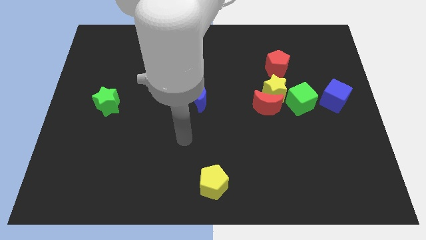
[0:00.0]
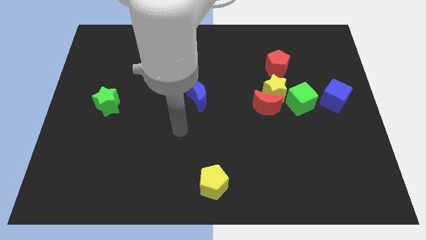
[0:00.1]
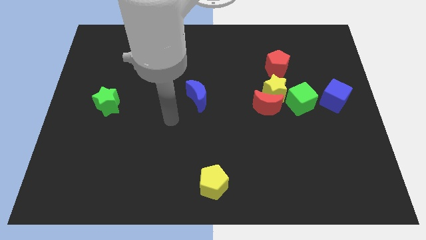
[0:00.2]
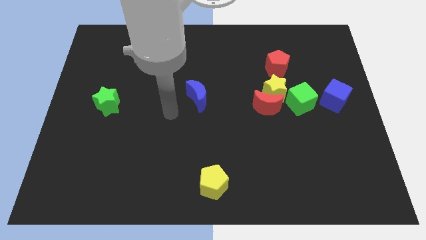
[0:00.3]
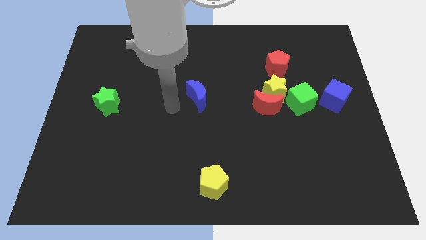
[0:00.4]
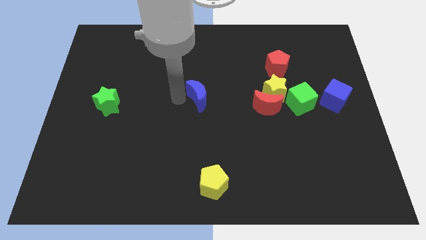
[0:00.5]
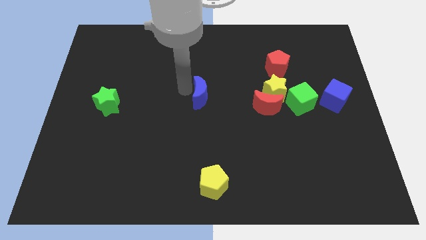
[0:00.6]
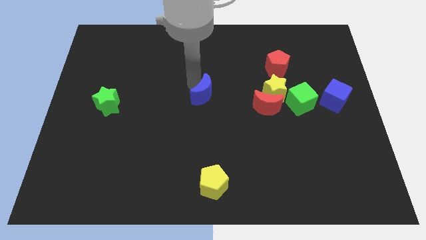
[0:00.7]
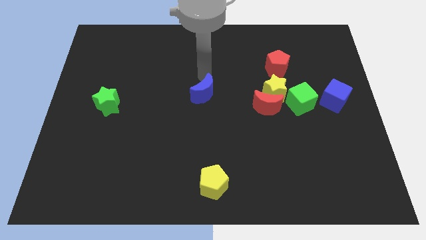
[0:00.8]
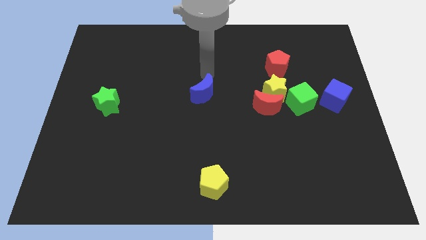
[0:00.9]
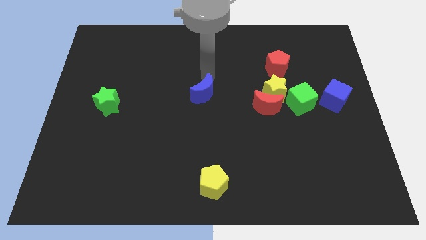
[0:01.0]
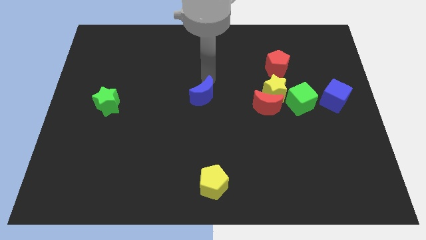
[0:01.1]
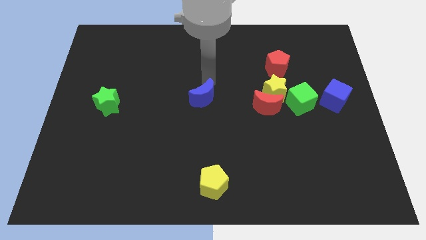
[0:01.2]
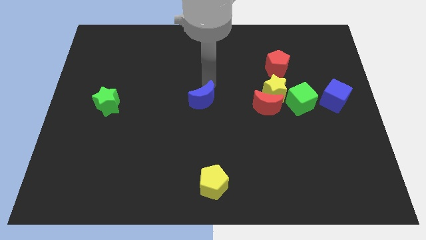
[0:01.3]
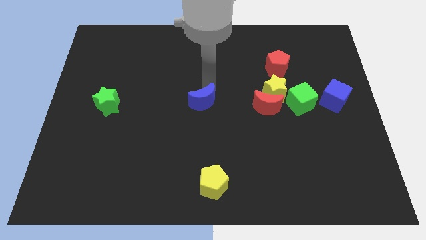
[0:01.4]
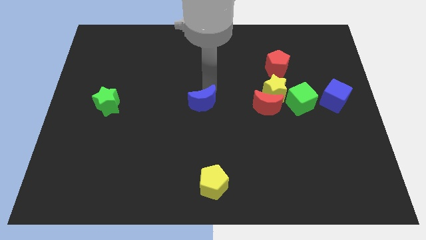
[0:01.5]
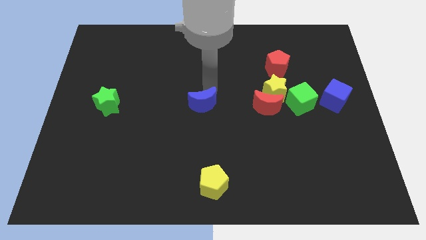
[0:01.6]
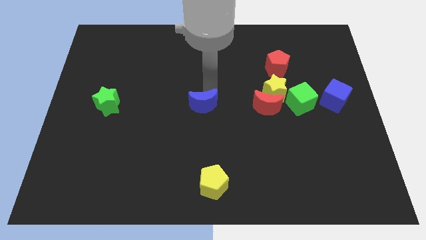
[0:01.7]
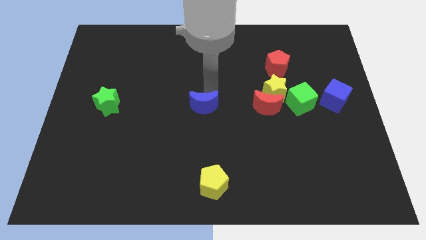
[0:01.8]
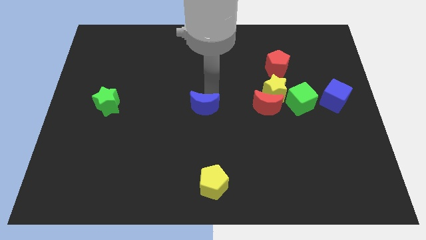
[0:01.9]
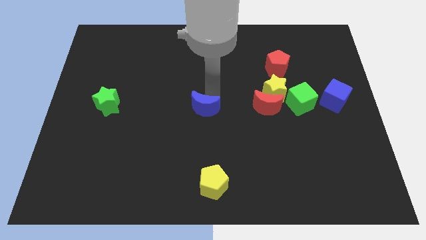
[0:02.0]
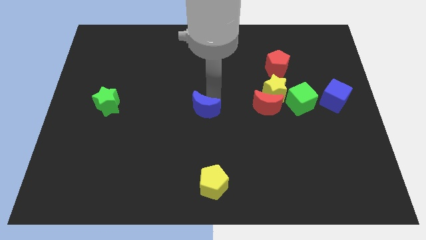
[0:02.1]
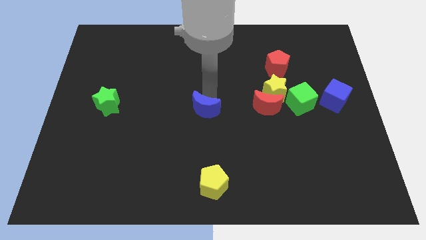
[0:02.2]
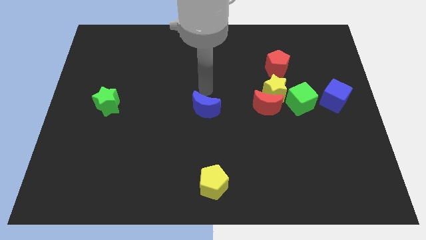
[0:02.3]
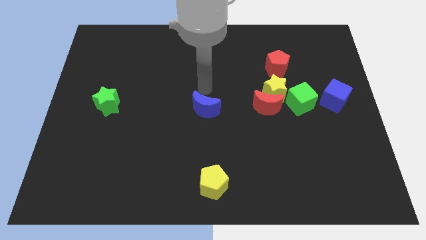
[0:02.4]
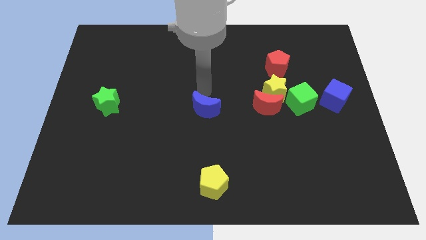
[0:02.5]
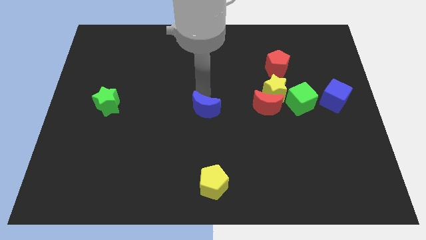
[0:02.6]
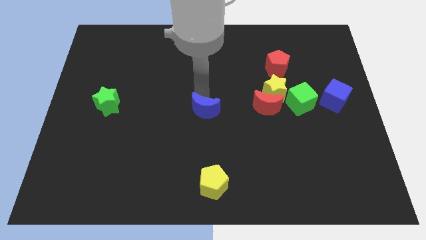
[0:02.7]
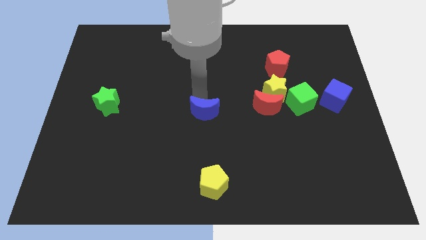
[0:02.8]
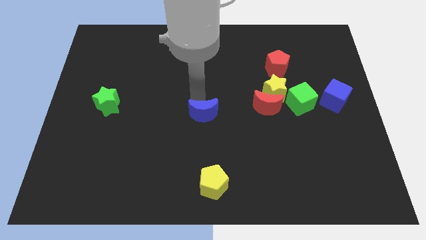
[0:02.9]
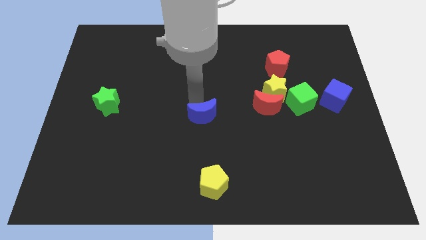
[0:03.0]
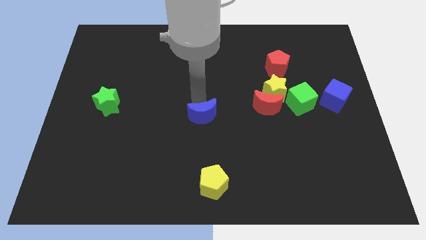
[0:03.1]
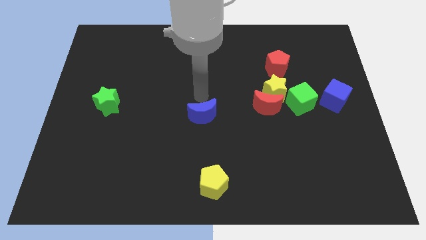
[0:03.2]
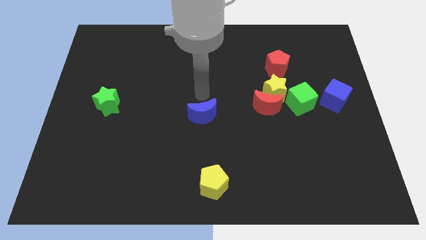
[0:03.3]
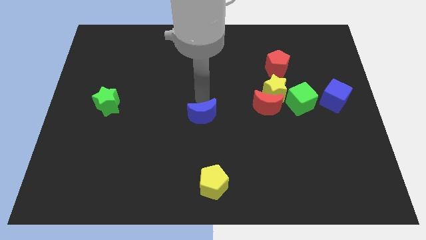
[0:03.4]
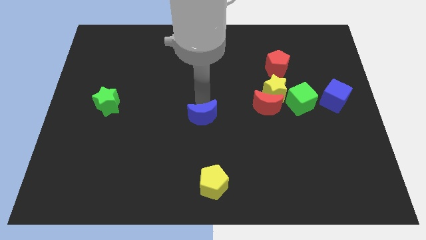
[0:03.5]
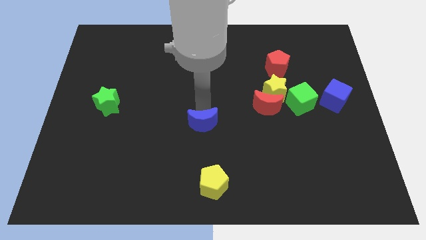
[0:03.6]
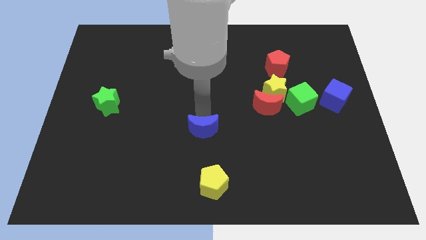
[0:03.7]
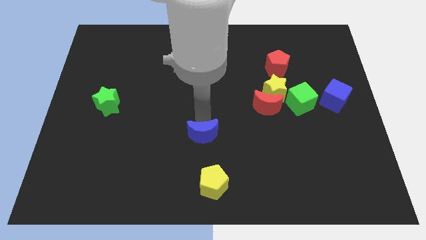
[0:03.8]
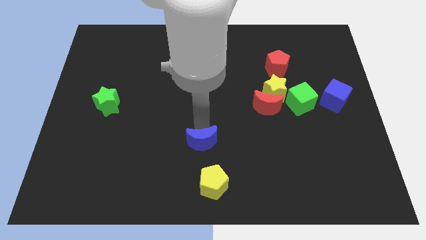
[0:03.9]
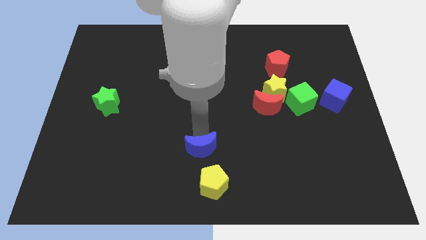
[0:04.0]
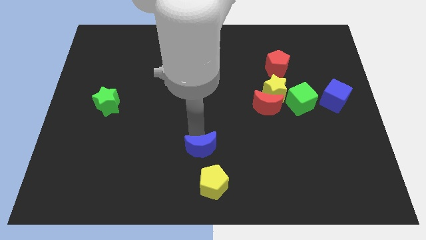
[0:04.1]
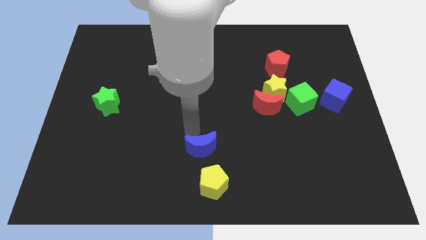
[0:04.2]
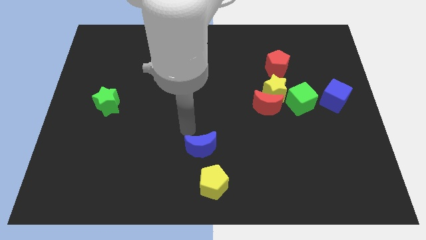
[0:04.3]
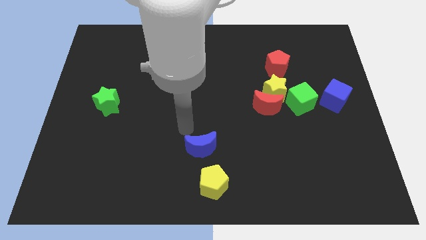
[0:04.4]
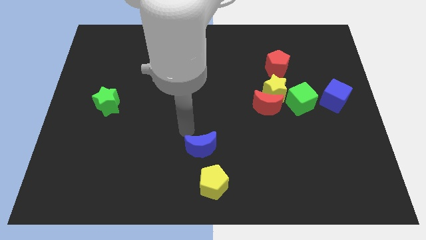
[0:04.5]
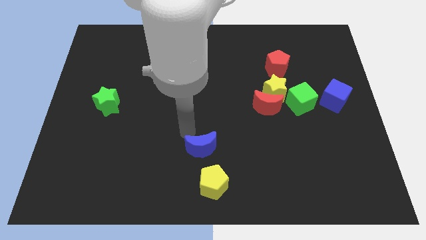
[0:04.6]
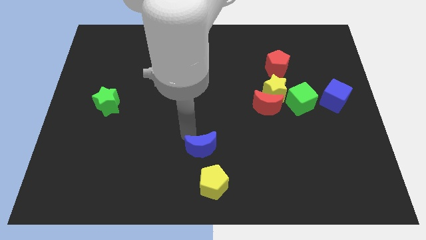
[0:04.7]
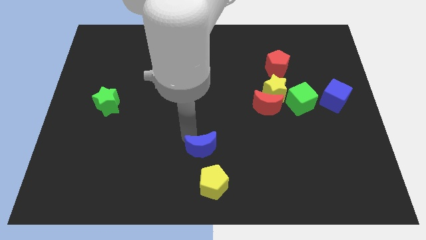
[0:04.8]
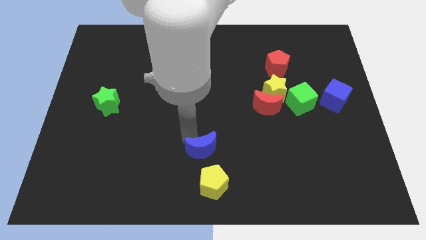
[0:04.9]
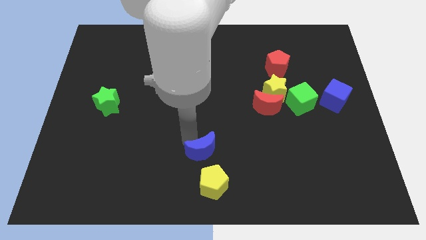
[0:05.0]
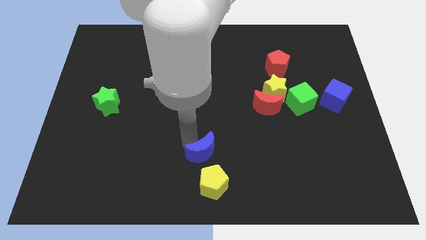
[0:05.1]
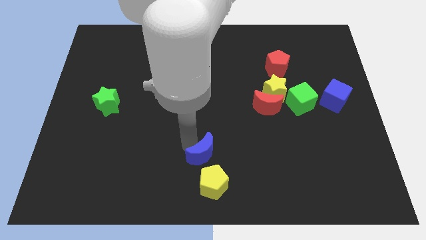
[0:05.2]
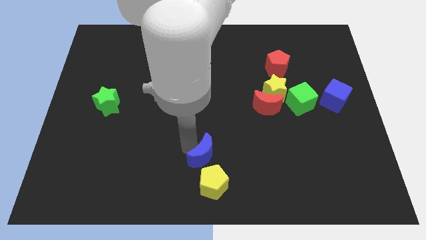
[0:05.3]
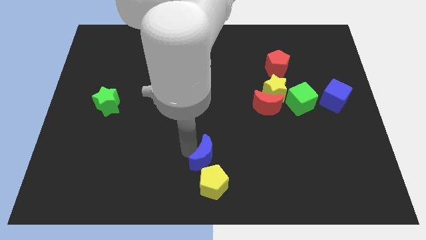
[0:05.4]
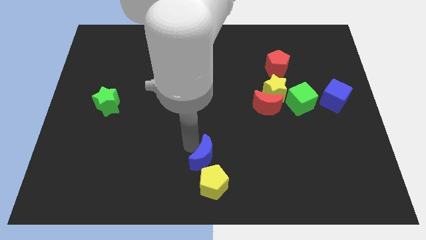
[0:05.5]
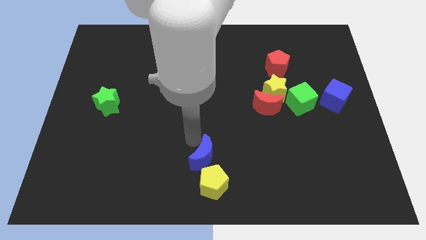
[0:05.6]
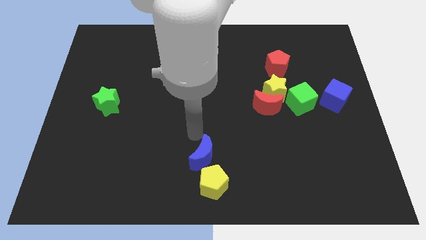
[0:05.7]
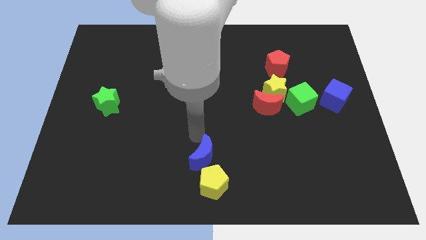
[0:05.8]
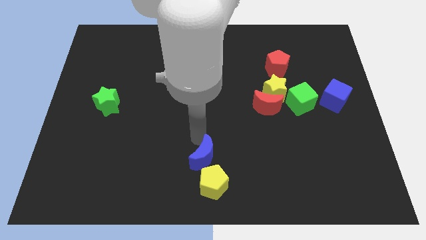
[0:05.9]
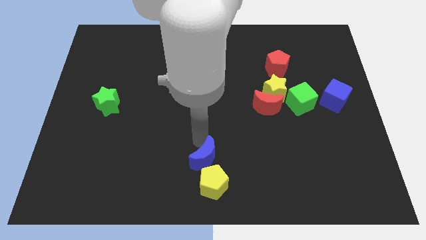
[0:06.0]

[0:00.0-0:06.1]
put the blue moon to the yellow pentagon
